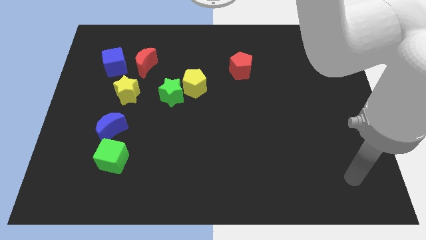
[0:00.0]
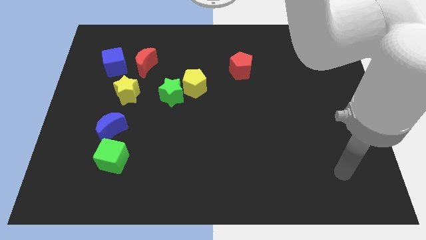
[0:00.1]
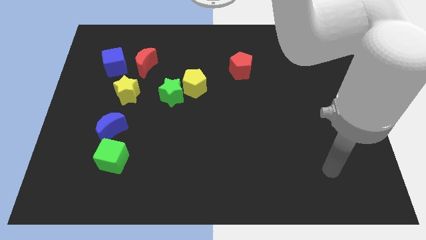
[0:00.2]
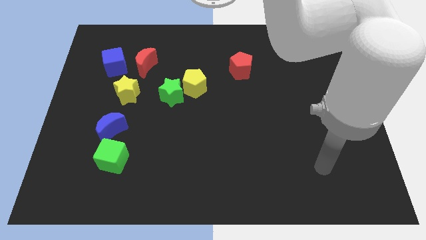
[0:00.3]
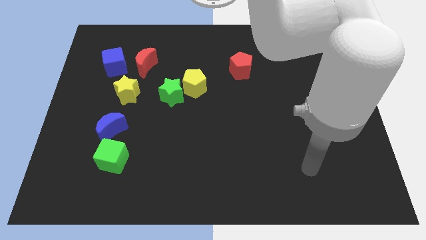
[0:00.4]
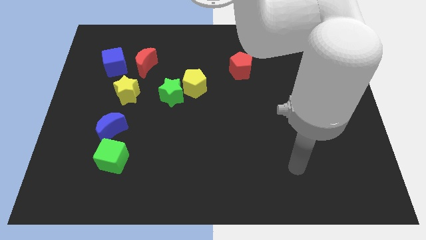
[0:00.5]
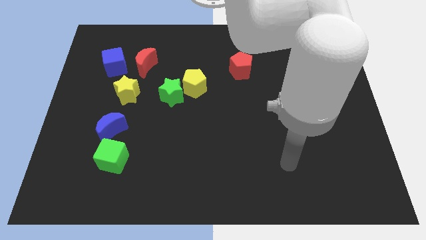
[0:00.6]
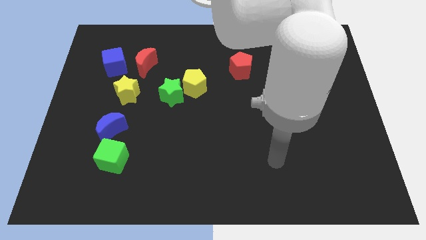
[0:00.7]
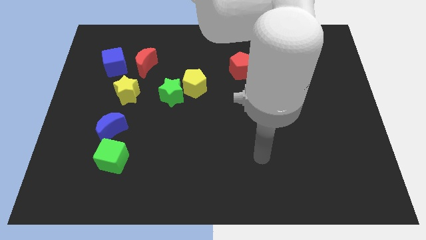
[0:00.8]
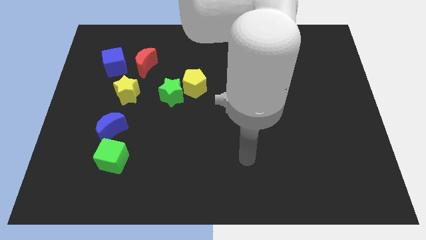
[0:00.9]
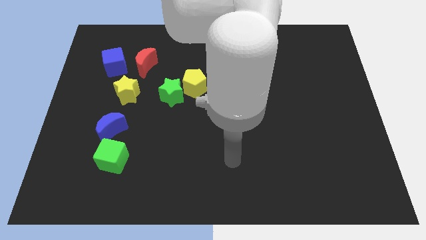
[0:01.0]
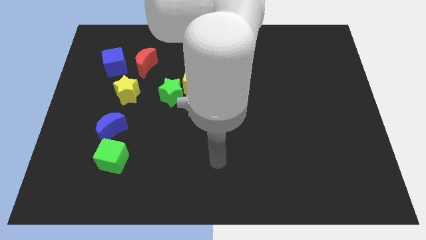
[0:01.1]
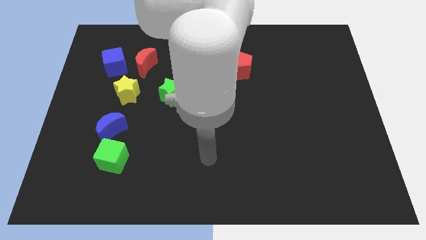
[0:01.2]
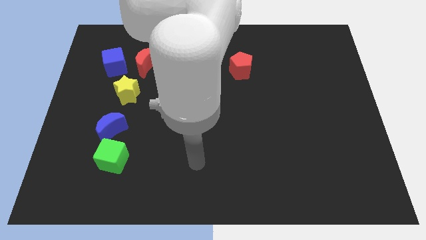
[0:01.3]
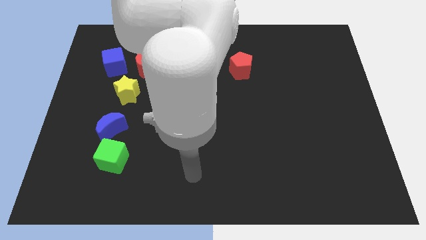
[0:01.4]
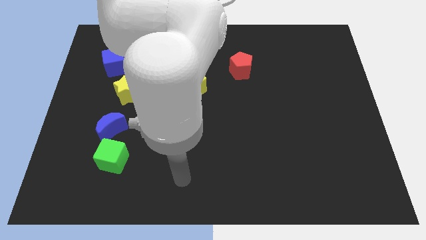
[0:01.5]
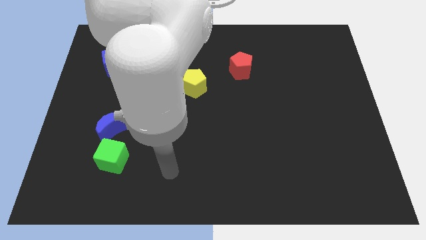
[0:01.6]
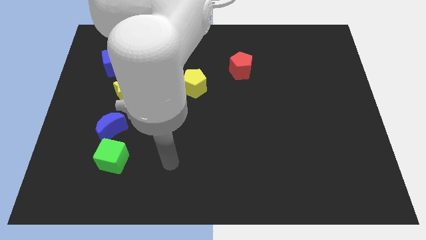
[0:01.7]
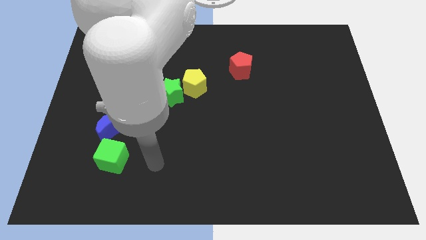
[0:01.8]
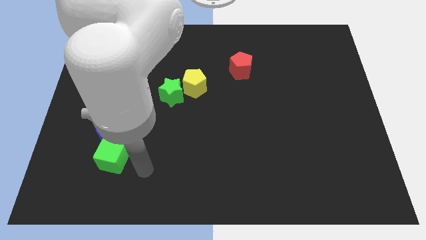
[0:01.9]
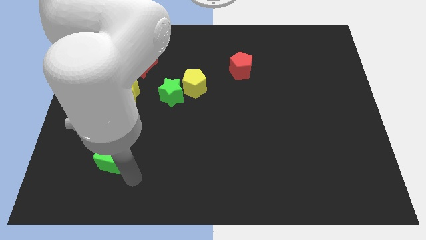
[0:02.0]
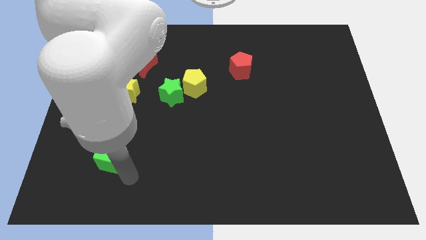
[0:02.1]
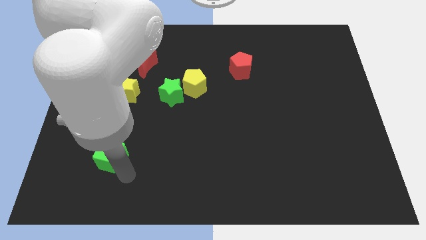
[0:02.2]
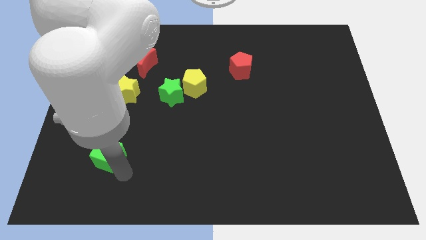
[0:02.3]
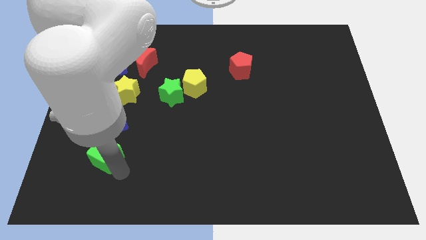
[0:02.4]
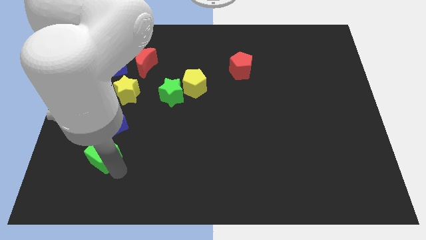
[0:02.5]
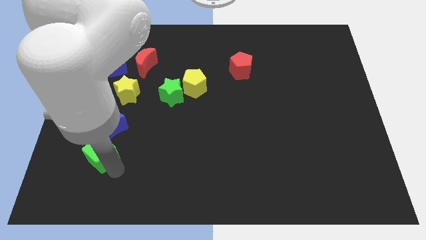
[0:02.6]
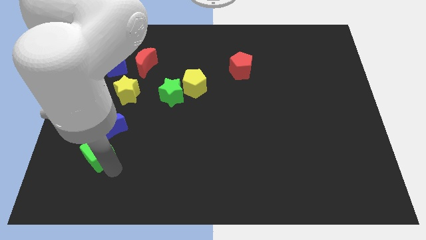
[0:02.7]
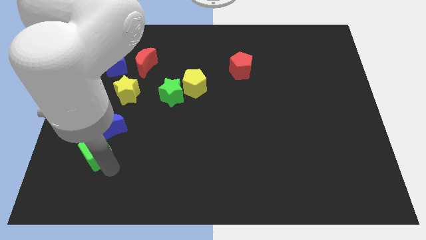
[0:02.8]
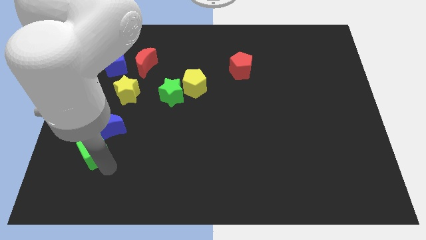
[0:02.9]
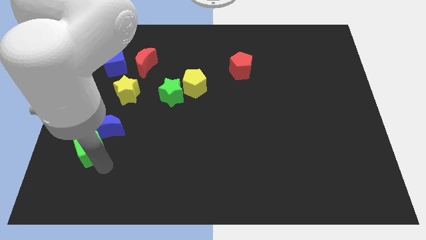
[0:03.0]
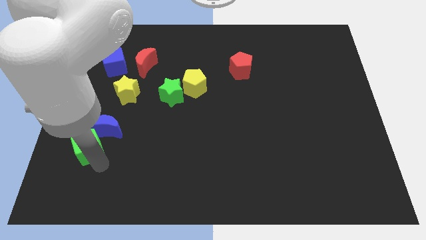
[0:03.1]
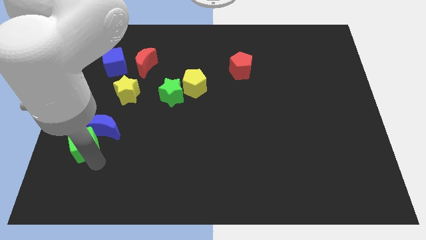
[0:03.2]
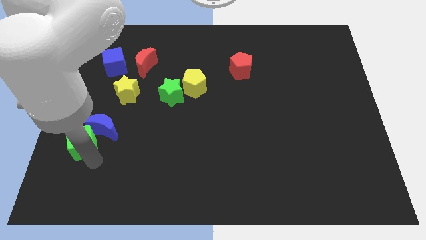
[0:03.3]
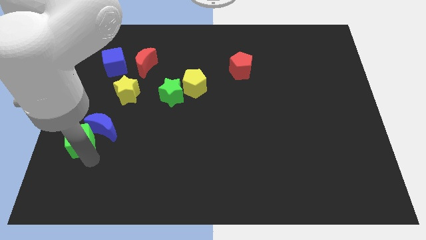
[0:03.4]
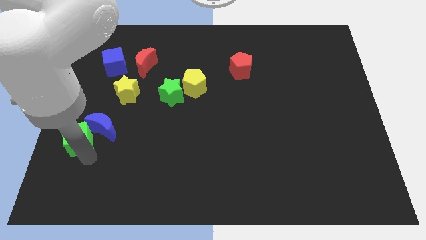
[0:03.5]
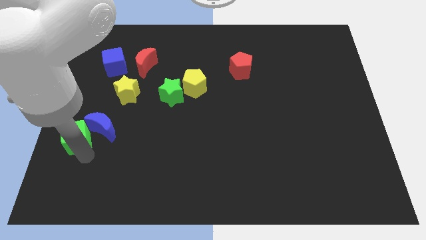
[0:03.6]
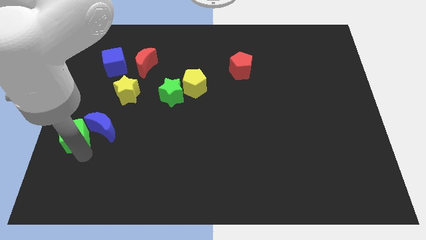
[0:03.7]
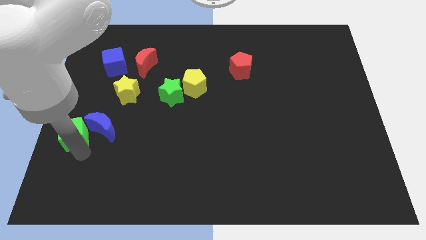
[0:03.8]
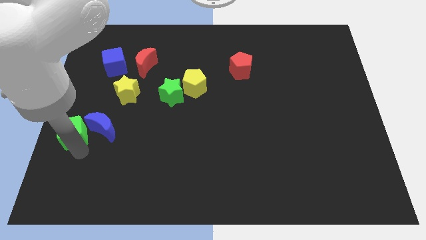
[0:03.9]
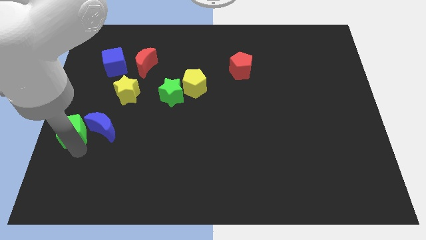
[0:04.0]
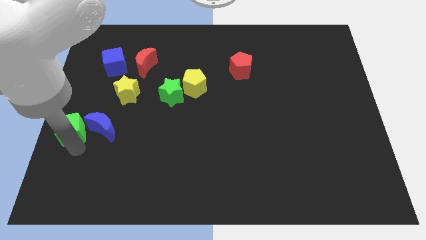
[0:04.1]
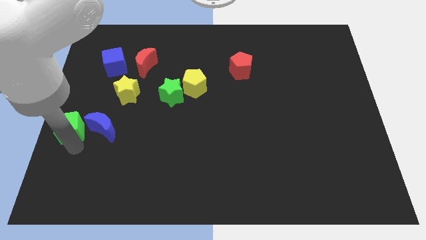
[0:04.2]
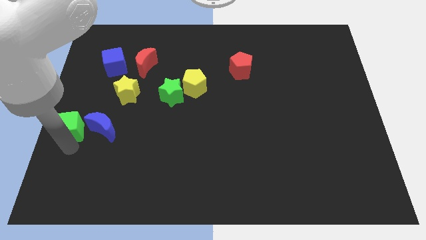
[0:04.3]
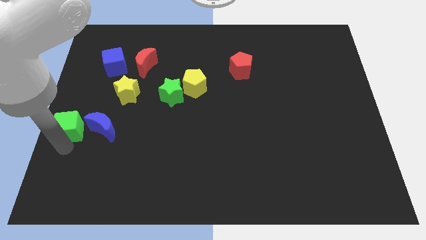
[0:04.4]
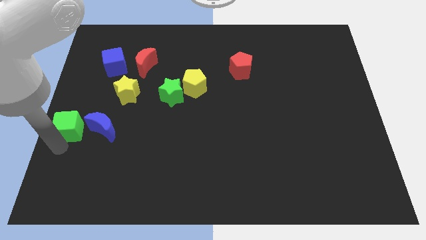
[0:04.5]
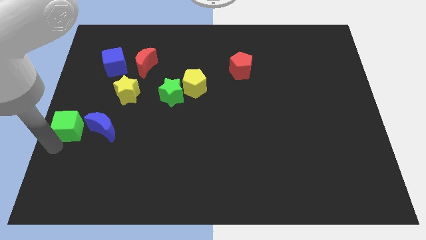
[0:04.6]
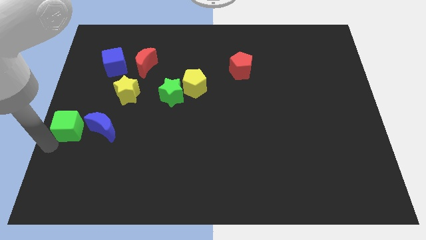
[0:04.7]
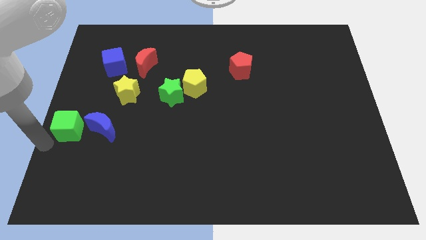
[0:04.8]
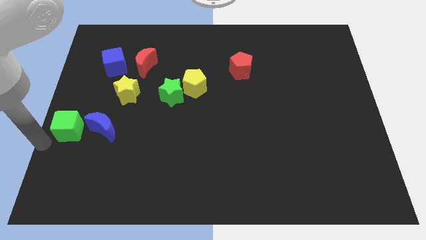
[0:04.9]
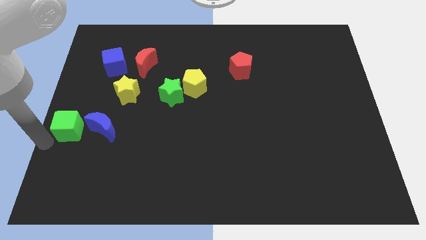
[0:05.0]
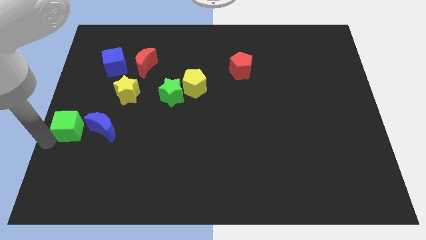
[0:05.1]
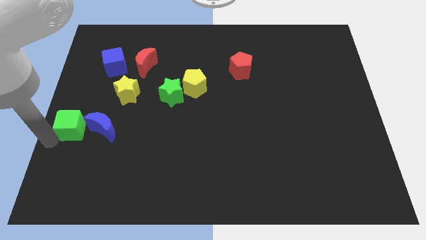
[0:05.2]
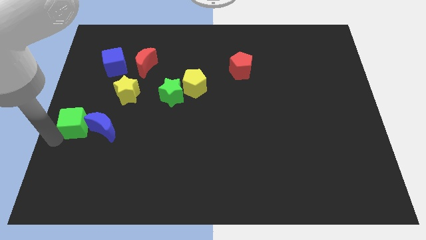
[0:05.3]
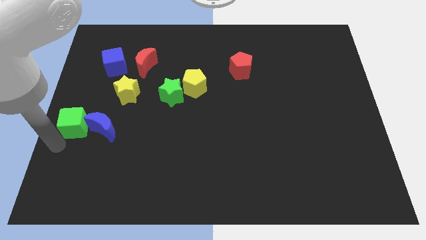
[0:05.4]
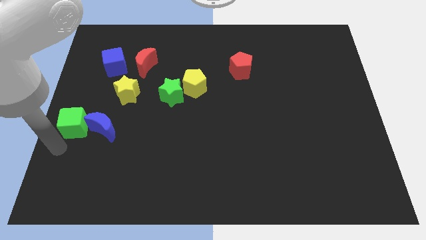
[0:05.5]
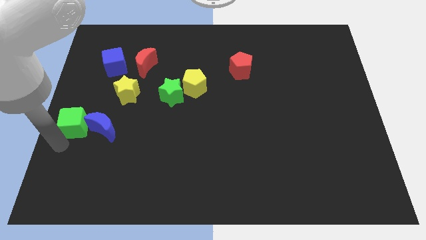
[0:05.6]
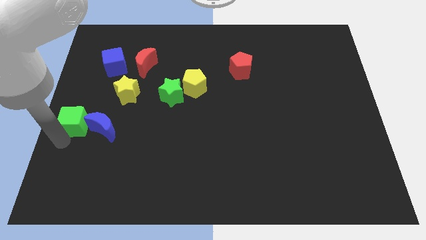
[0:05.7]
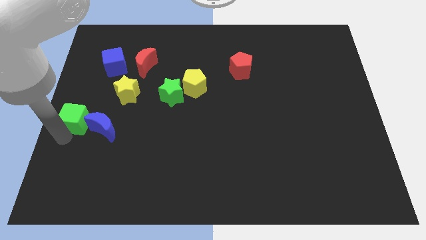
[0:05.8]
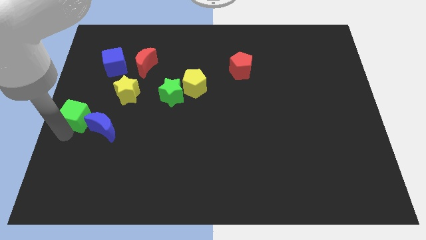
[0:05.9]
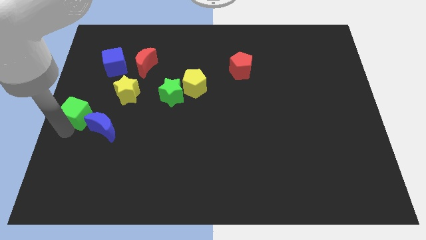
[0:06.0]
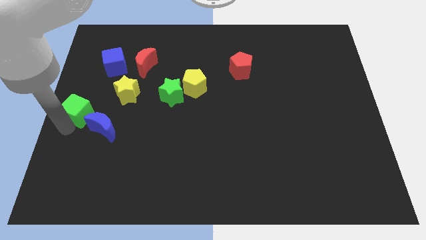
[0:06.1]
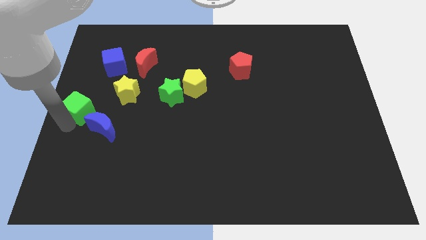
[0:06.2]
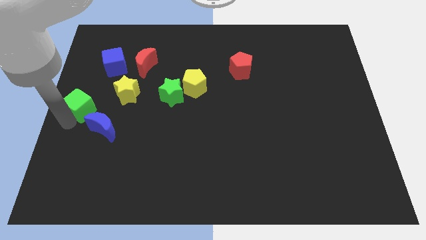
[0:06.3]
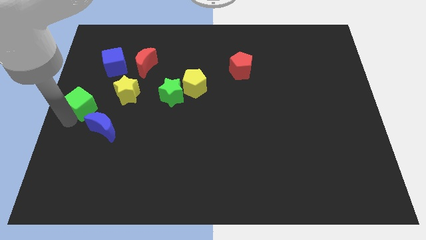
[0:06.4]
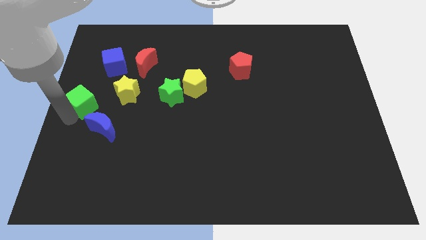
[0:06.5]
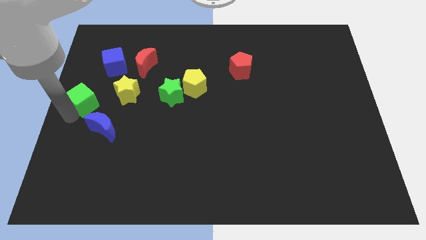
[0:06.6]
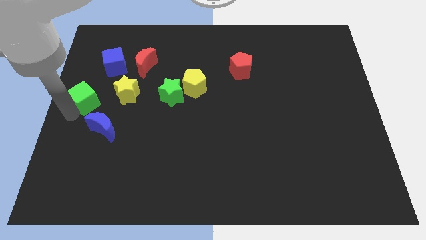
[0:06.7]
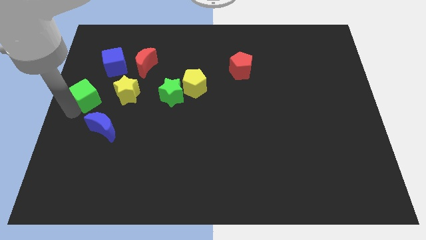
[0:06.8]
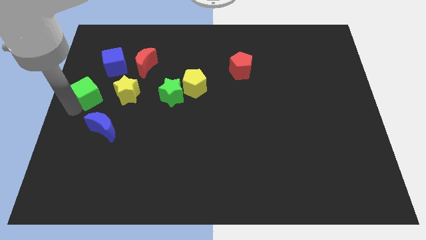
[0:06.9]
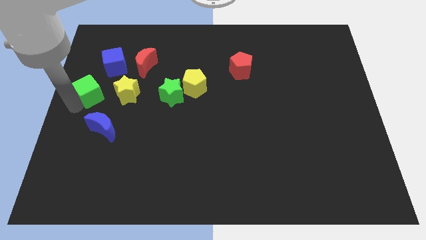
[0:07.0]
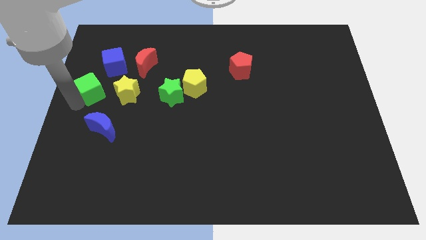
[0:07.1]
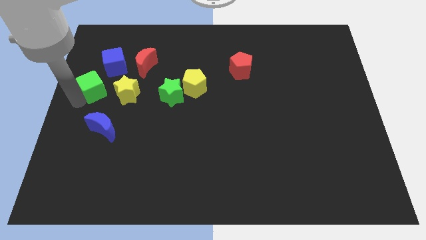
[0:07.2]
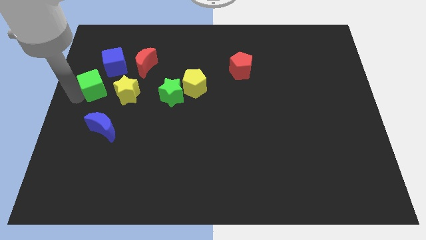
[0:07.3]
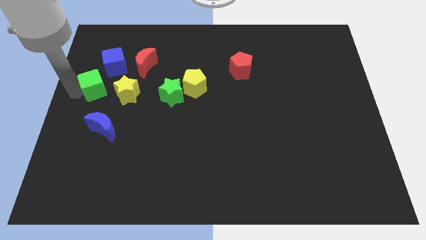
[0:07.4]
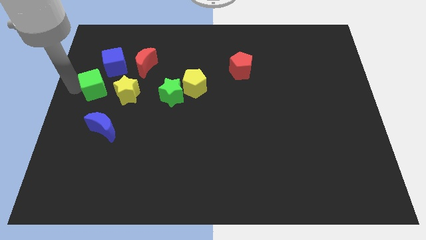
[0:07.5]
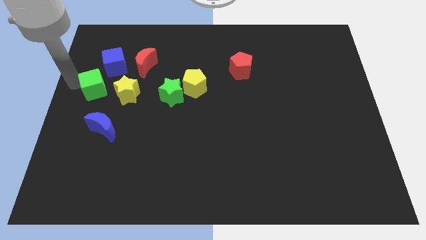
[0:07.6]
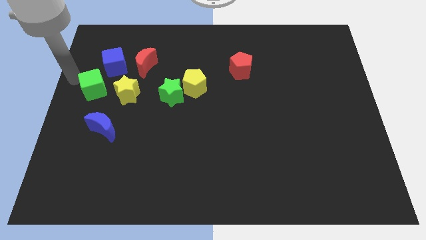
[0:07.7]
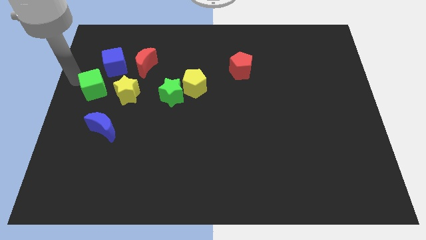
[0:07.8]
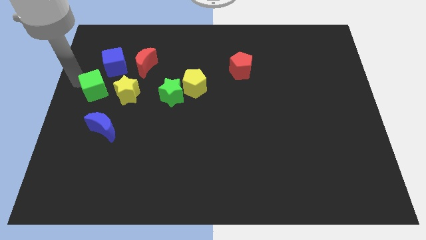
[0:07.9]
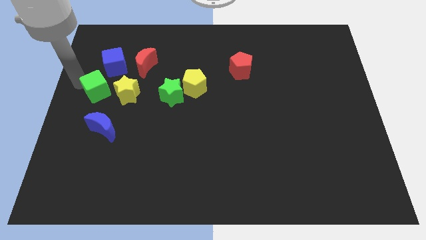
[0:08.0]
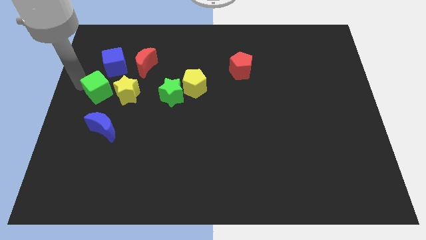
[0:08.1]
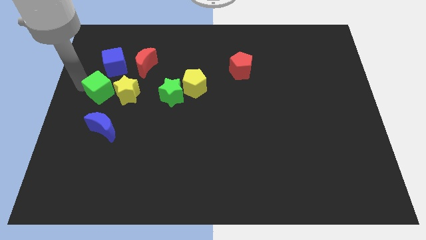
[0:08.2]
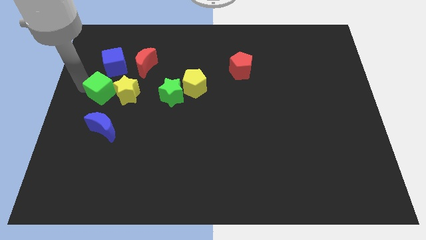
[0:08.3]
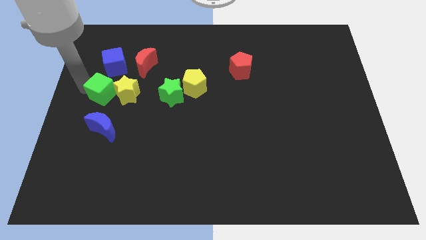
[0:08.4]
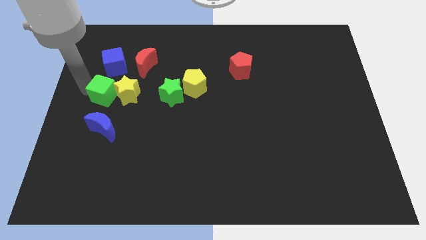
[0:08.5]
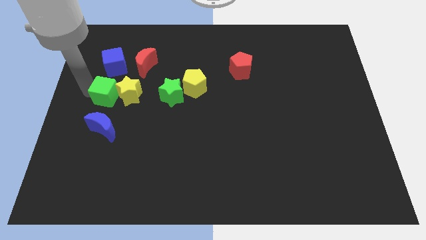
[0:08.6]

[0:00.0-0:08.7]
slide the green cube to the left side of the green star
